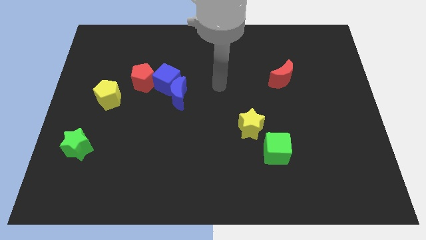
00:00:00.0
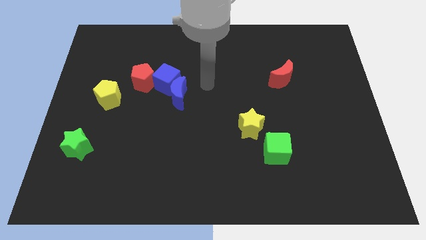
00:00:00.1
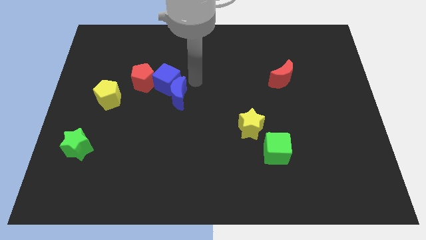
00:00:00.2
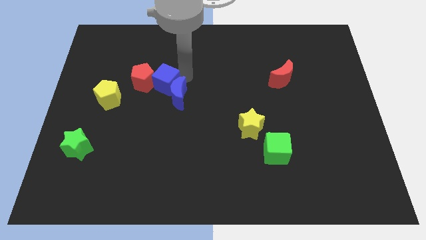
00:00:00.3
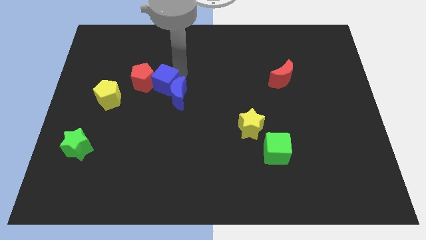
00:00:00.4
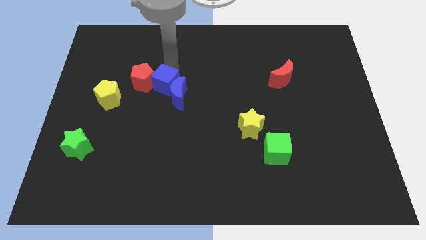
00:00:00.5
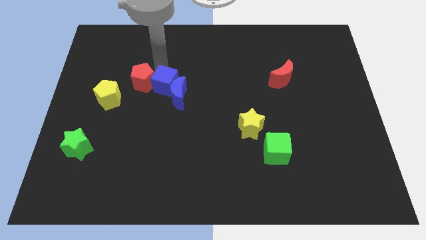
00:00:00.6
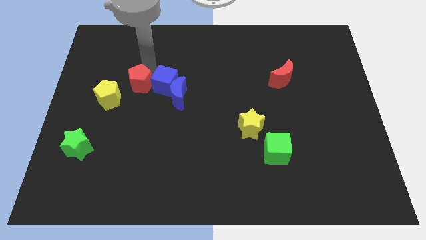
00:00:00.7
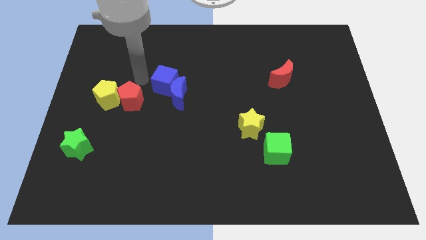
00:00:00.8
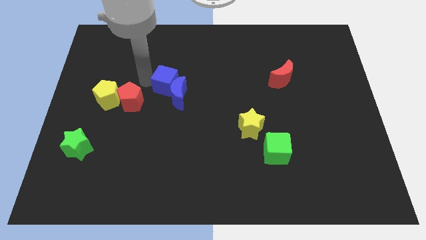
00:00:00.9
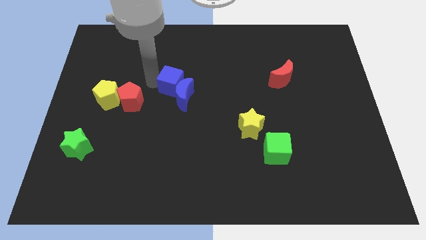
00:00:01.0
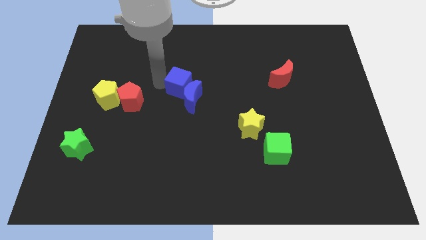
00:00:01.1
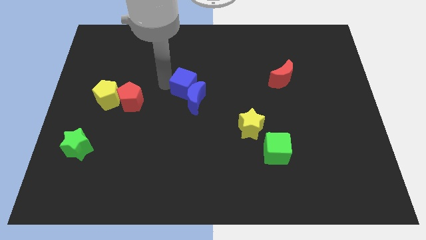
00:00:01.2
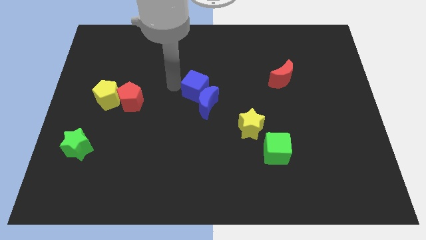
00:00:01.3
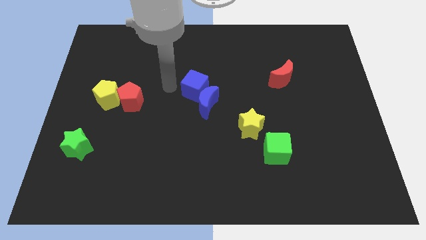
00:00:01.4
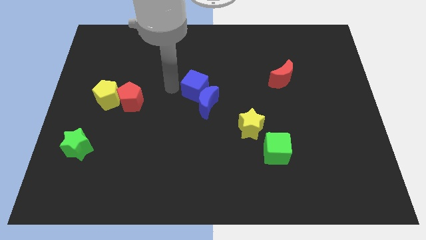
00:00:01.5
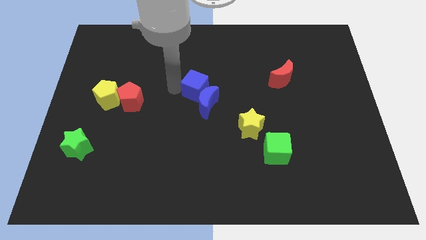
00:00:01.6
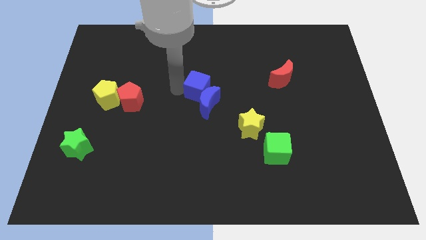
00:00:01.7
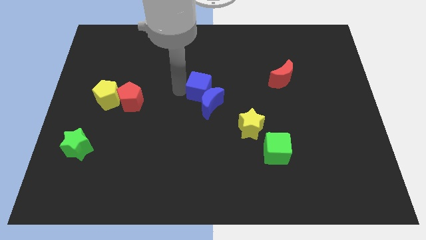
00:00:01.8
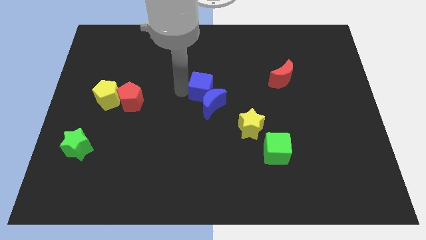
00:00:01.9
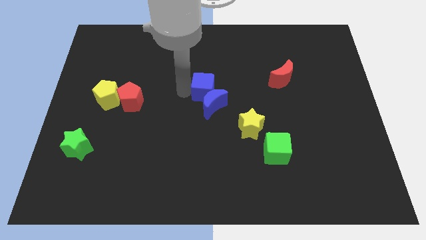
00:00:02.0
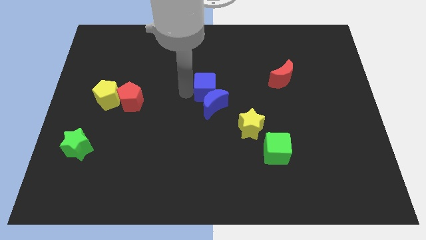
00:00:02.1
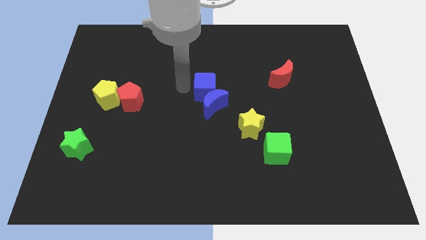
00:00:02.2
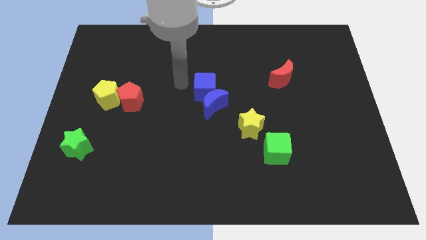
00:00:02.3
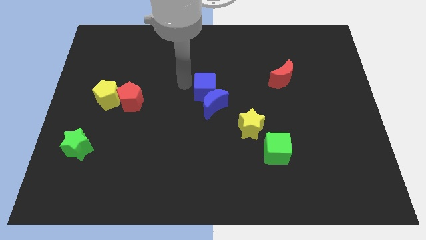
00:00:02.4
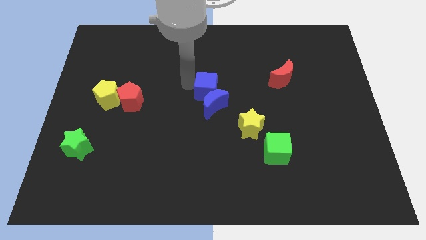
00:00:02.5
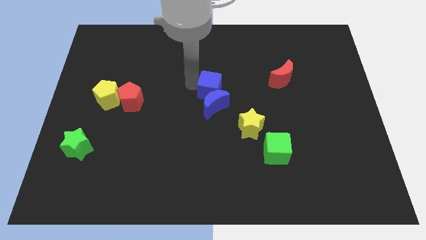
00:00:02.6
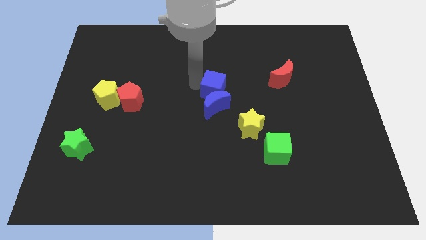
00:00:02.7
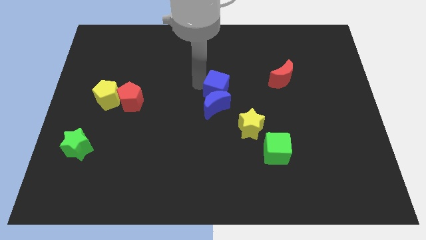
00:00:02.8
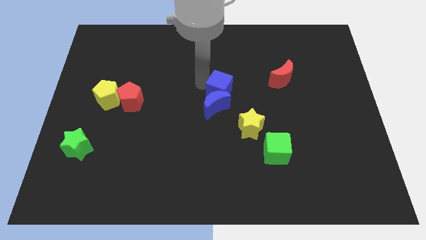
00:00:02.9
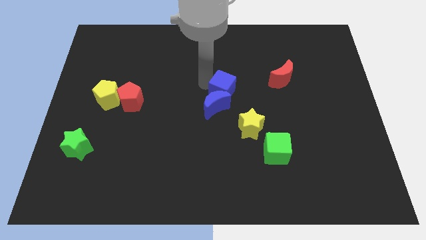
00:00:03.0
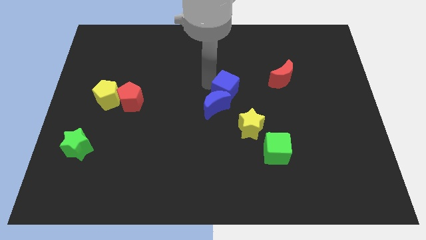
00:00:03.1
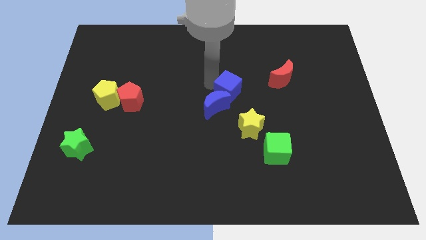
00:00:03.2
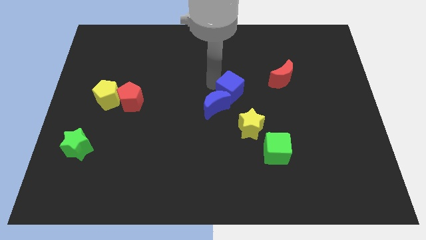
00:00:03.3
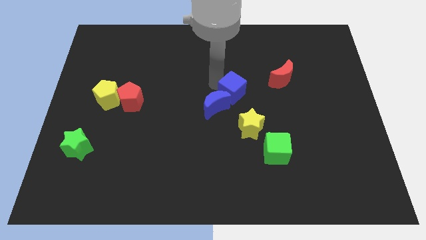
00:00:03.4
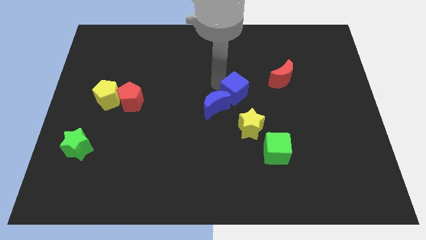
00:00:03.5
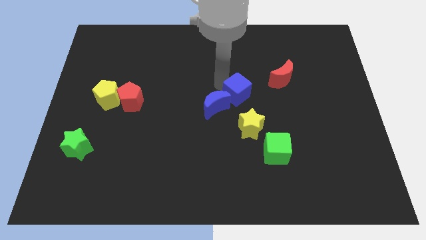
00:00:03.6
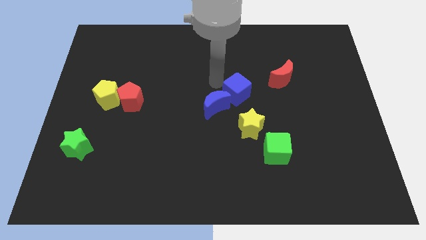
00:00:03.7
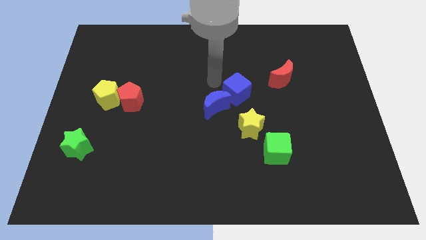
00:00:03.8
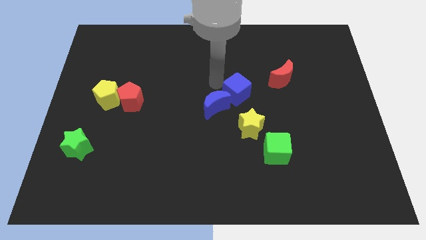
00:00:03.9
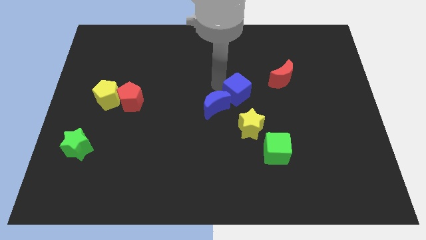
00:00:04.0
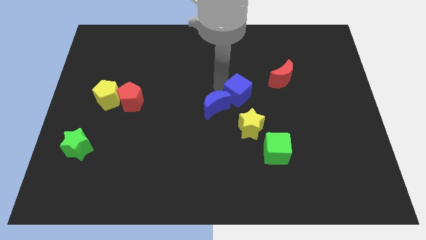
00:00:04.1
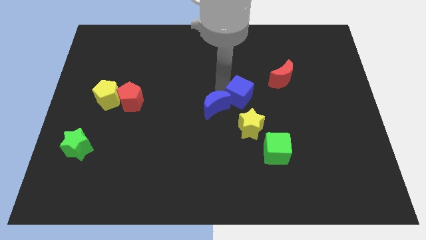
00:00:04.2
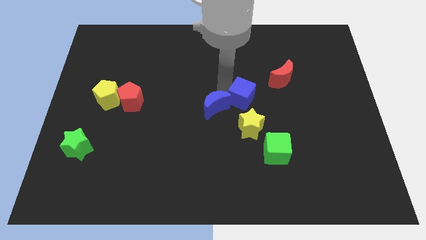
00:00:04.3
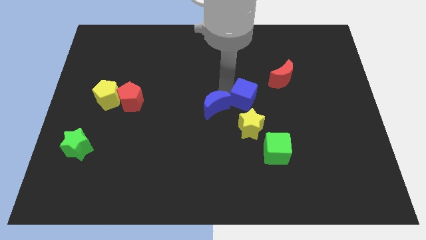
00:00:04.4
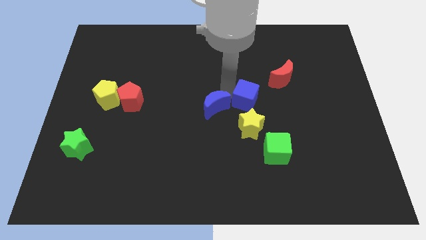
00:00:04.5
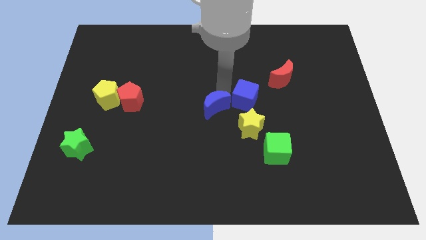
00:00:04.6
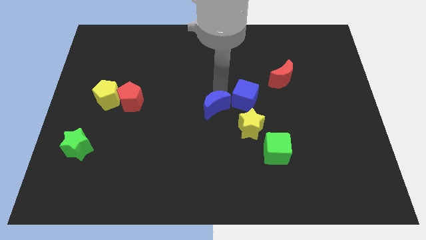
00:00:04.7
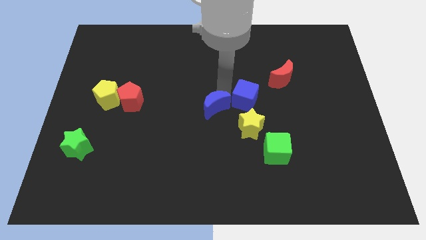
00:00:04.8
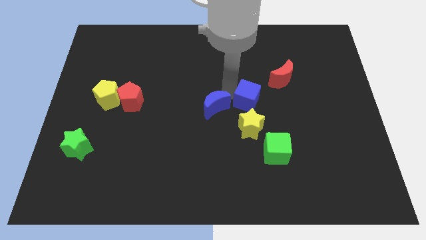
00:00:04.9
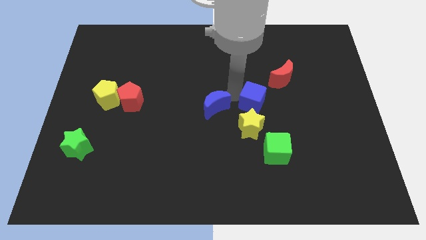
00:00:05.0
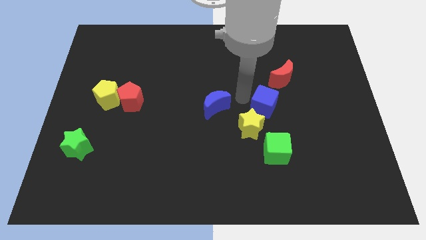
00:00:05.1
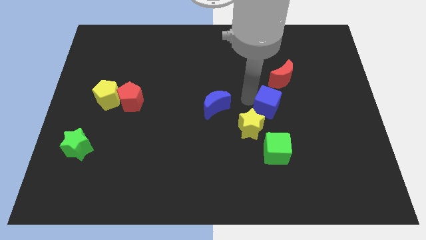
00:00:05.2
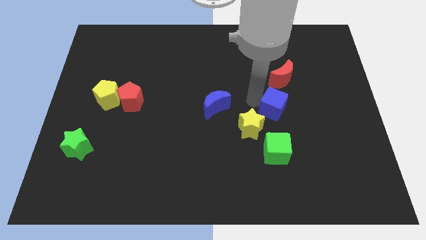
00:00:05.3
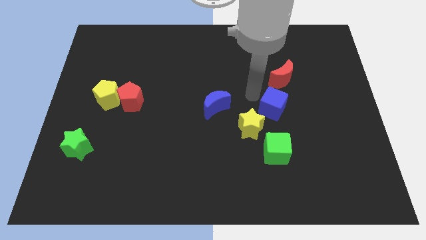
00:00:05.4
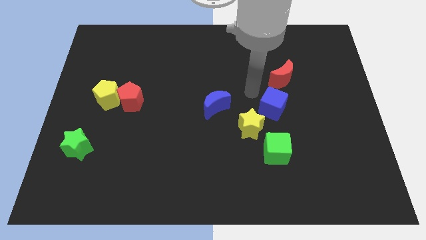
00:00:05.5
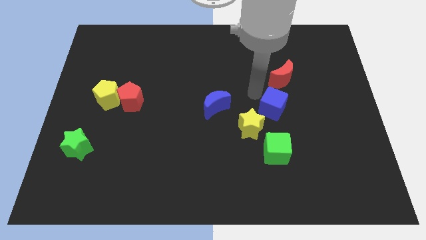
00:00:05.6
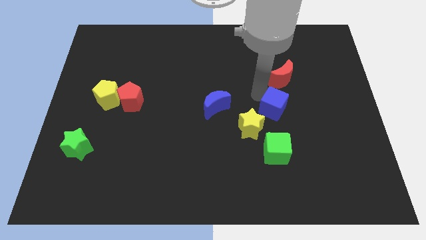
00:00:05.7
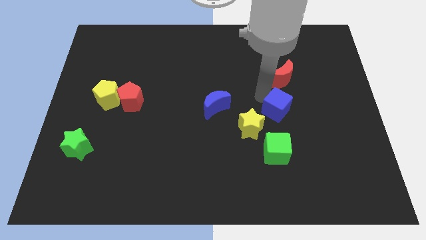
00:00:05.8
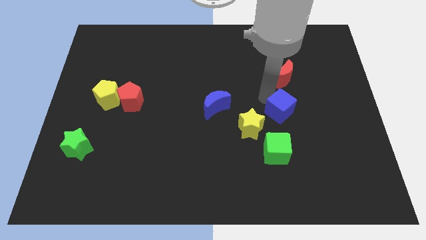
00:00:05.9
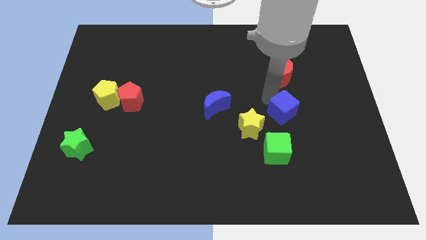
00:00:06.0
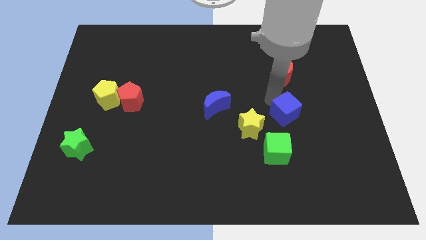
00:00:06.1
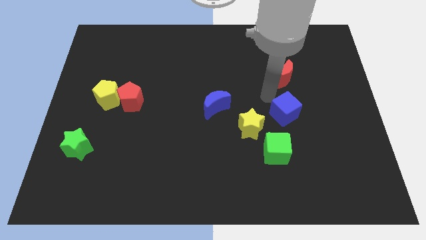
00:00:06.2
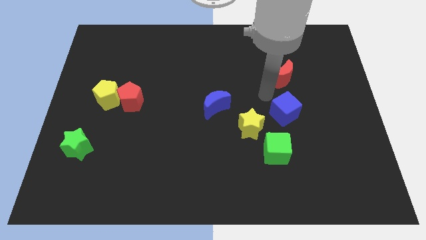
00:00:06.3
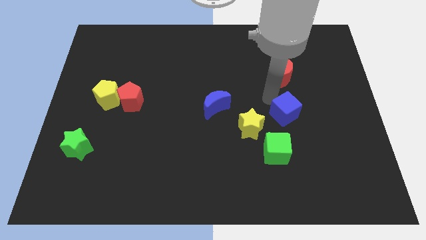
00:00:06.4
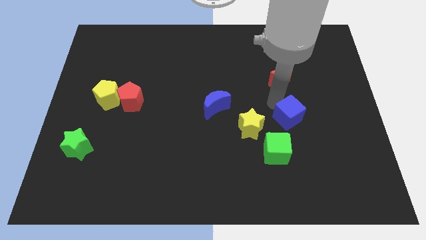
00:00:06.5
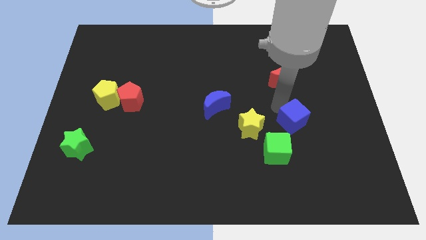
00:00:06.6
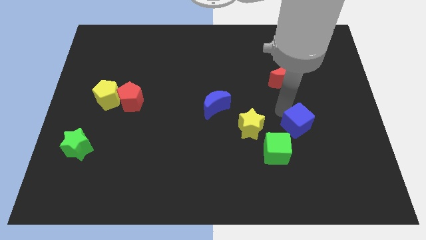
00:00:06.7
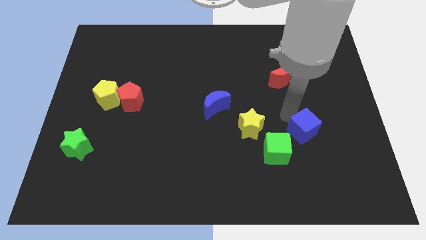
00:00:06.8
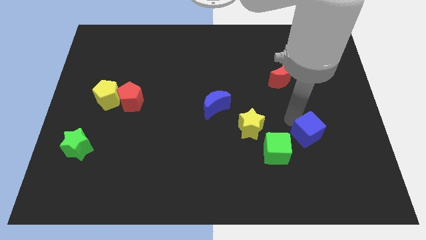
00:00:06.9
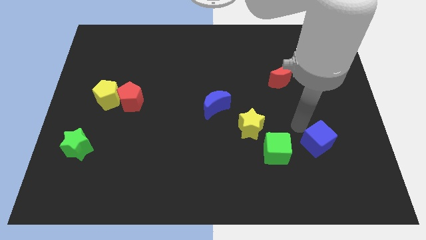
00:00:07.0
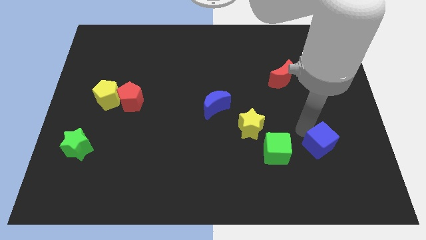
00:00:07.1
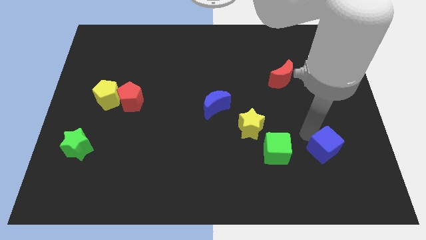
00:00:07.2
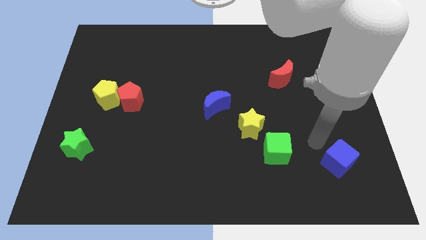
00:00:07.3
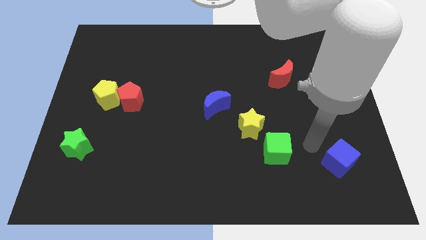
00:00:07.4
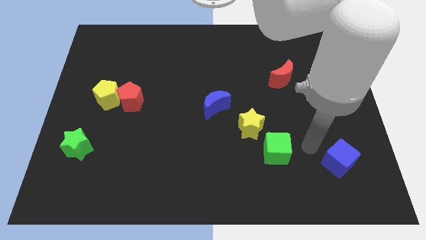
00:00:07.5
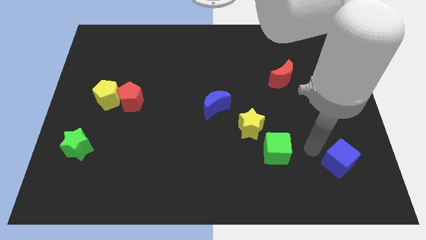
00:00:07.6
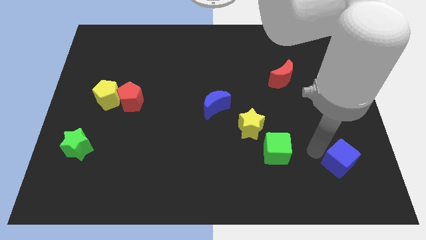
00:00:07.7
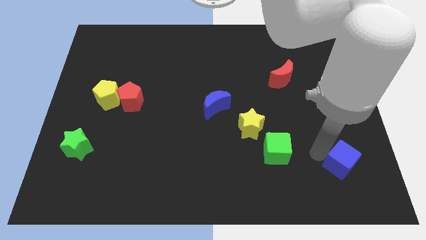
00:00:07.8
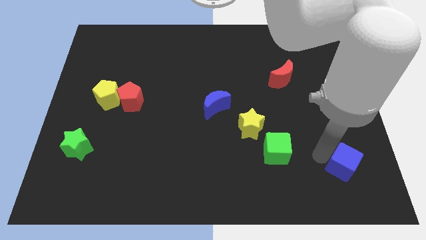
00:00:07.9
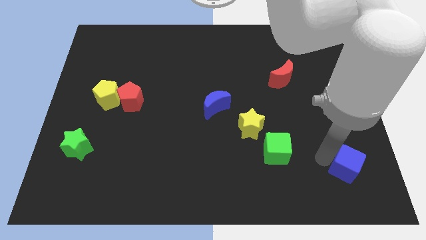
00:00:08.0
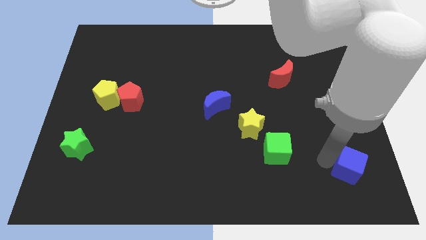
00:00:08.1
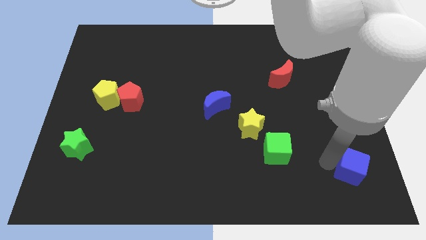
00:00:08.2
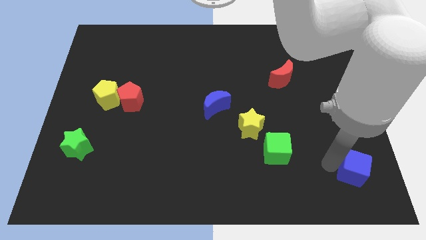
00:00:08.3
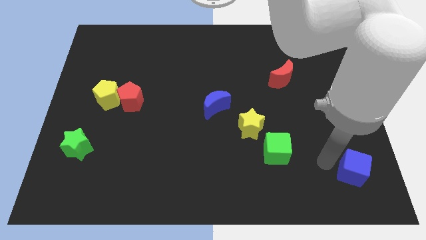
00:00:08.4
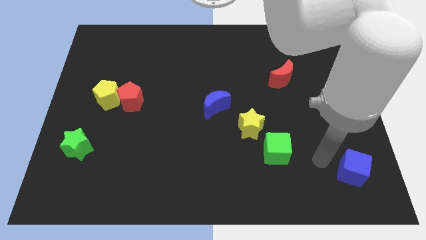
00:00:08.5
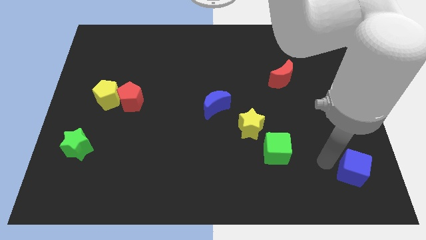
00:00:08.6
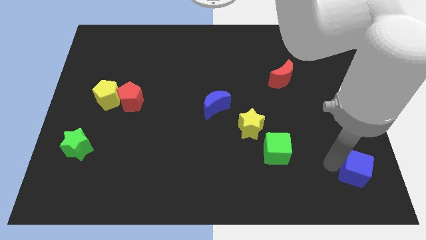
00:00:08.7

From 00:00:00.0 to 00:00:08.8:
slide the blue cube to the bottom right corner
